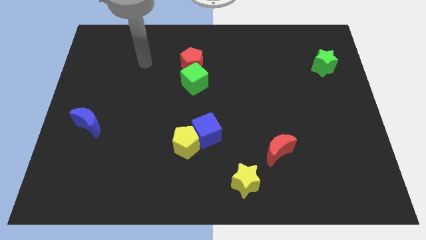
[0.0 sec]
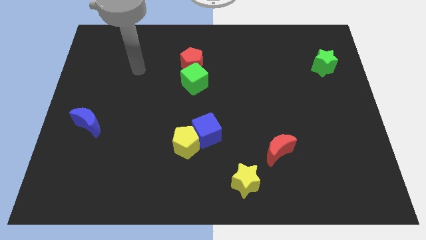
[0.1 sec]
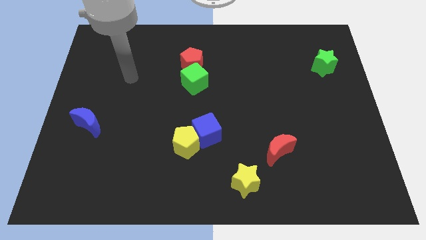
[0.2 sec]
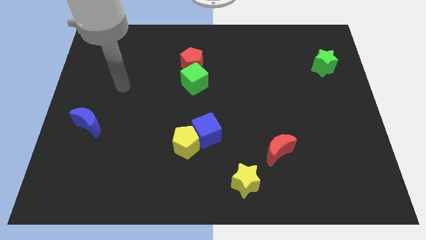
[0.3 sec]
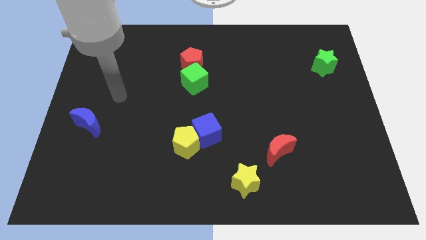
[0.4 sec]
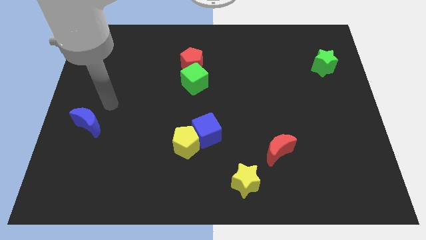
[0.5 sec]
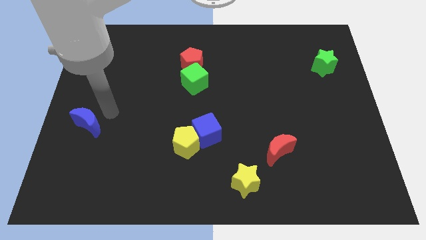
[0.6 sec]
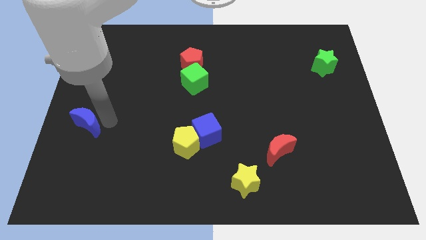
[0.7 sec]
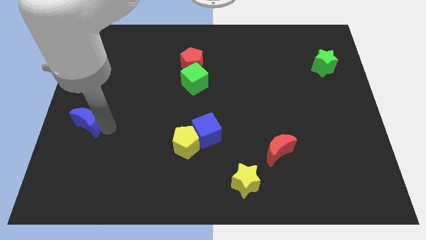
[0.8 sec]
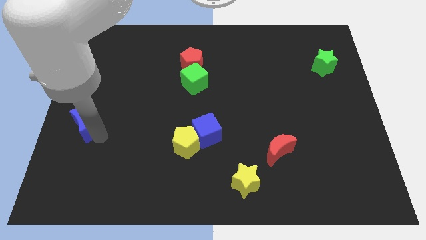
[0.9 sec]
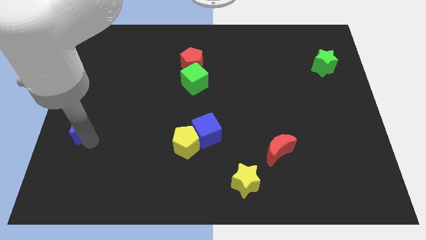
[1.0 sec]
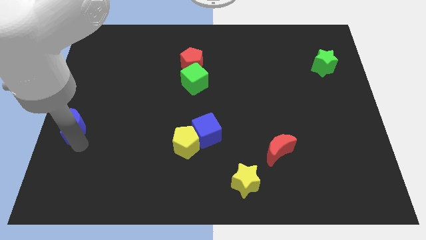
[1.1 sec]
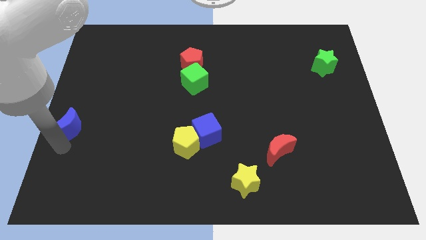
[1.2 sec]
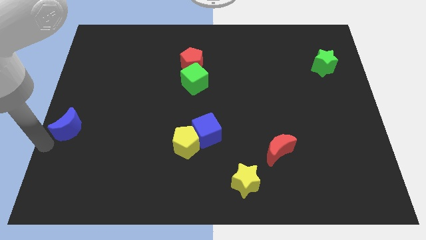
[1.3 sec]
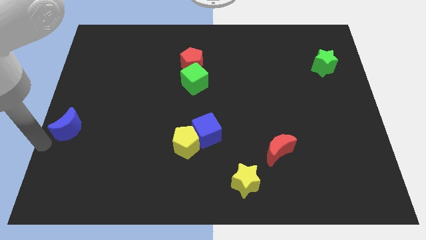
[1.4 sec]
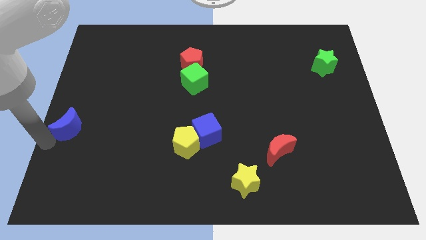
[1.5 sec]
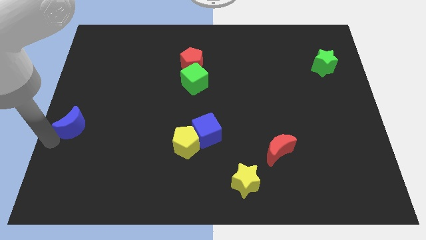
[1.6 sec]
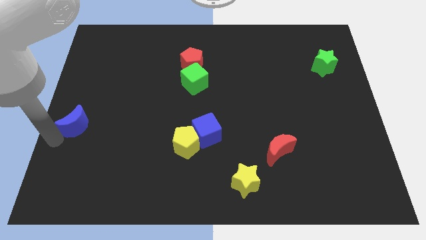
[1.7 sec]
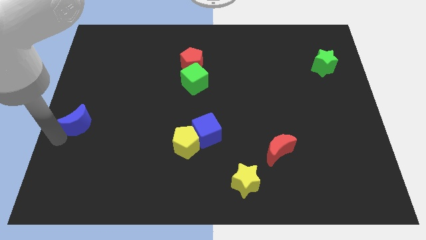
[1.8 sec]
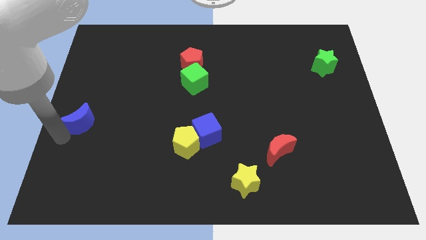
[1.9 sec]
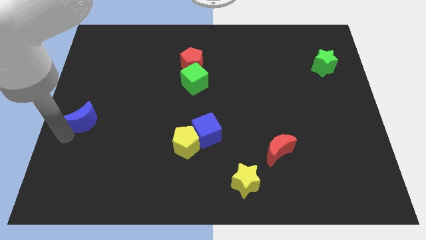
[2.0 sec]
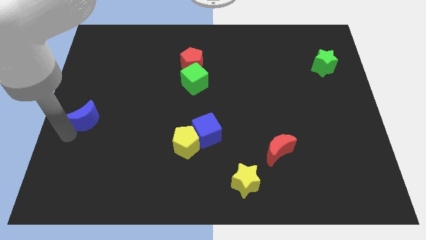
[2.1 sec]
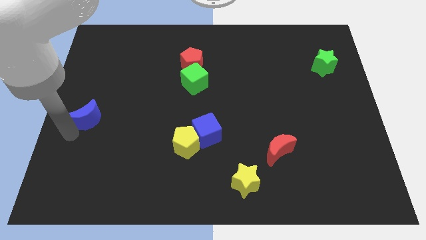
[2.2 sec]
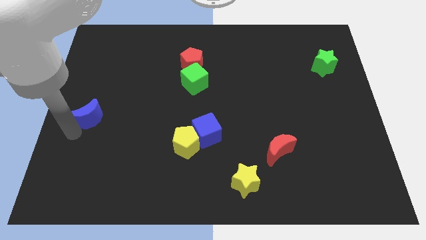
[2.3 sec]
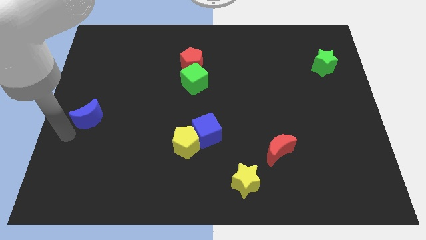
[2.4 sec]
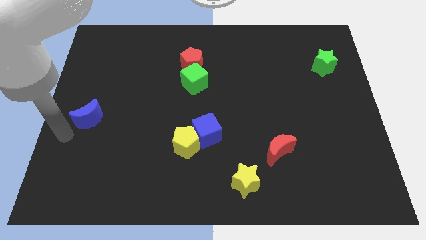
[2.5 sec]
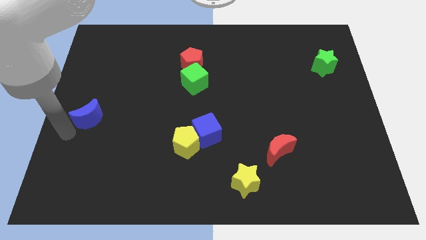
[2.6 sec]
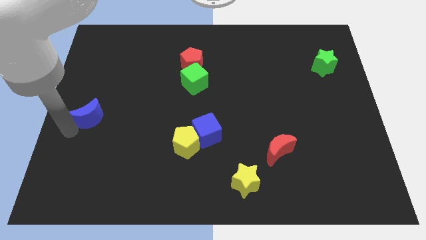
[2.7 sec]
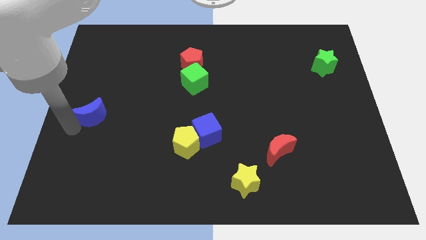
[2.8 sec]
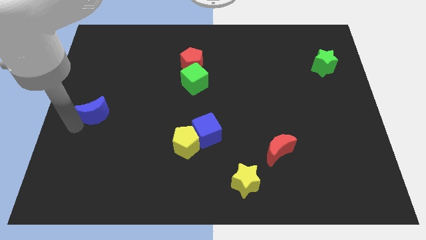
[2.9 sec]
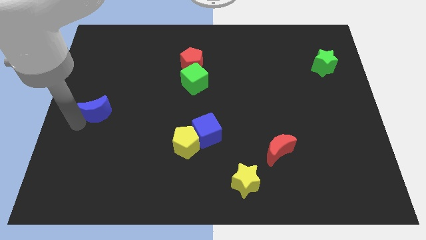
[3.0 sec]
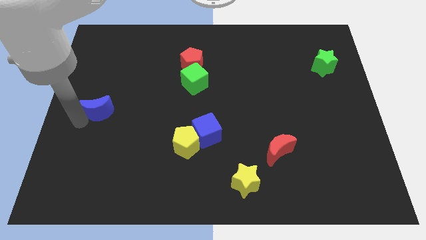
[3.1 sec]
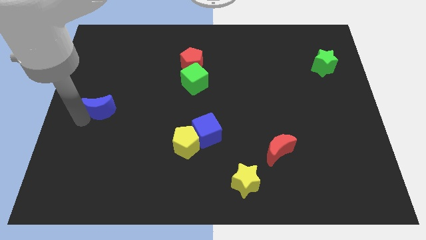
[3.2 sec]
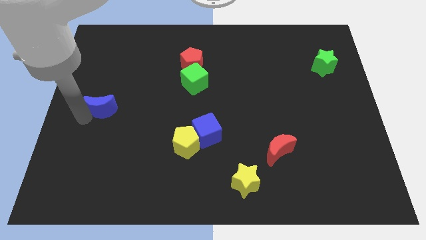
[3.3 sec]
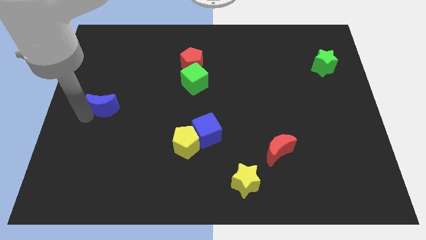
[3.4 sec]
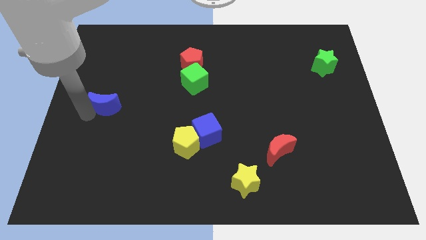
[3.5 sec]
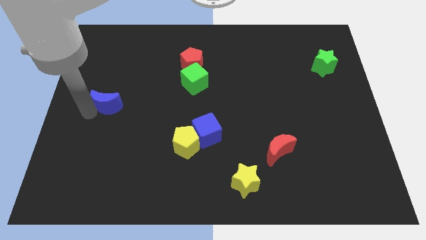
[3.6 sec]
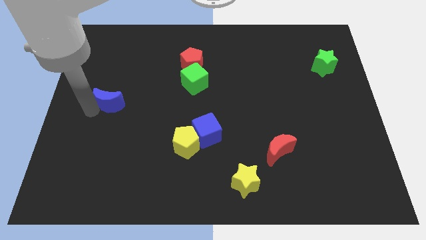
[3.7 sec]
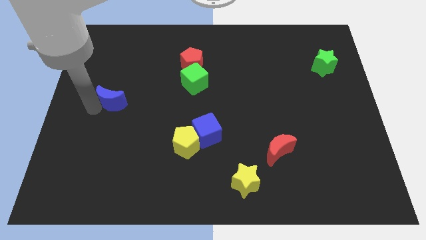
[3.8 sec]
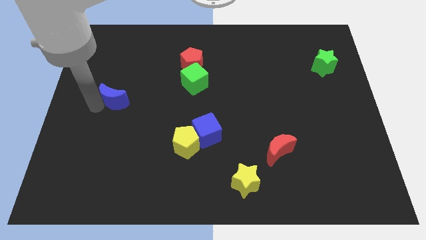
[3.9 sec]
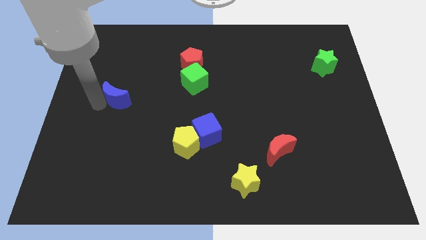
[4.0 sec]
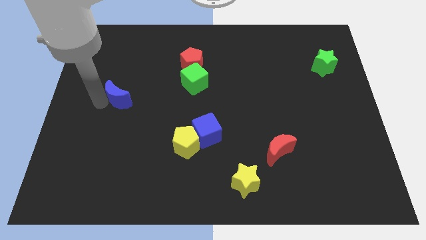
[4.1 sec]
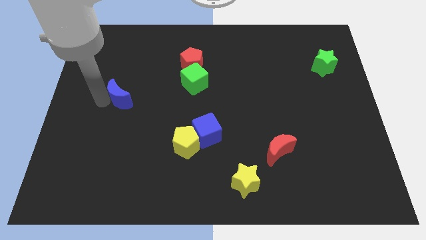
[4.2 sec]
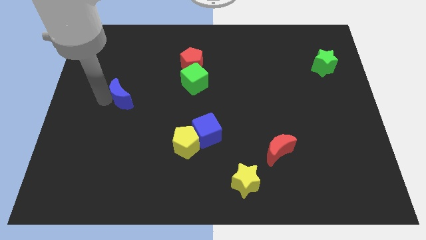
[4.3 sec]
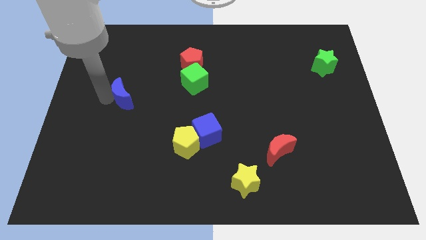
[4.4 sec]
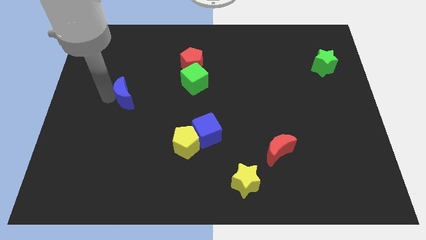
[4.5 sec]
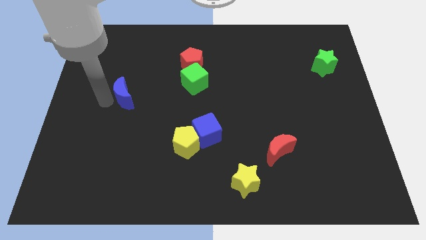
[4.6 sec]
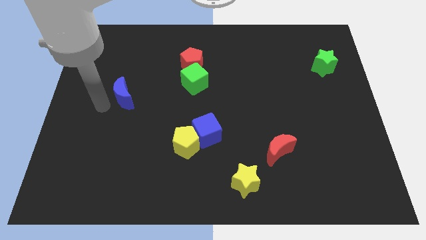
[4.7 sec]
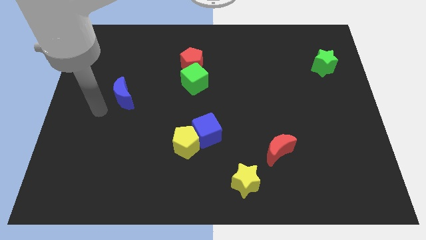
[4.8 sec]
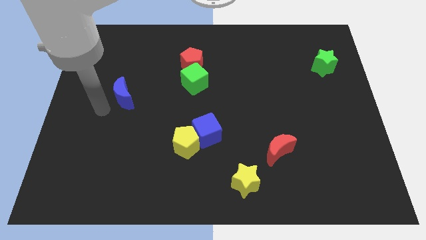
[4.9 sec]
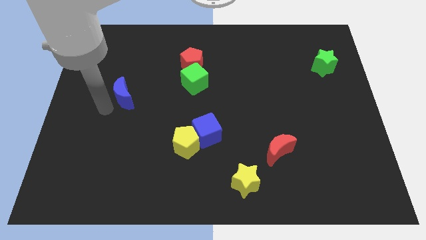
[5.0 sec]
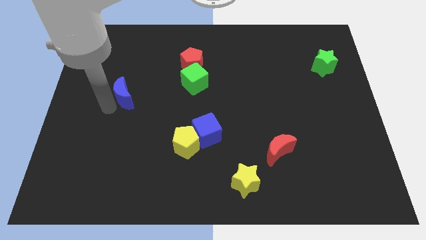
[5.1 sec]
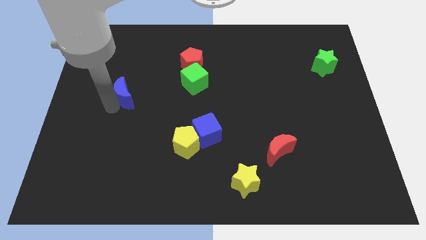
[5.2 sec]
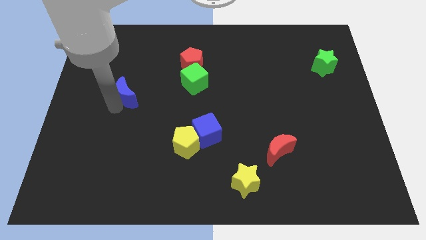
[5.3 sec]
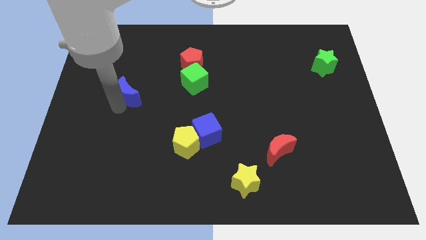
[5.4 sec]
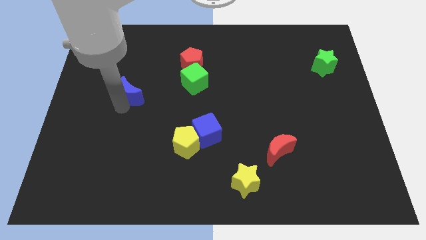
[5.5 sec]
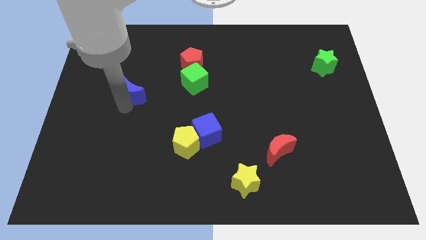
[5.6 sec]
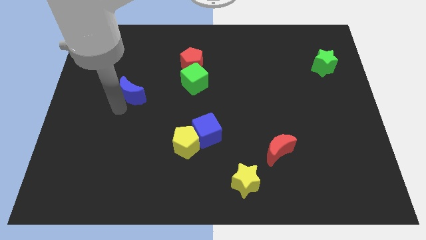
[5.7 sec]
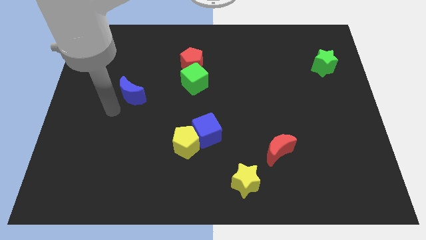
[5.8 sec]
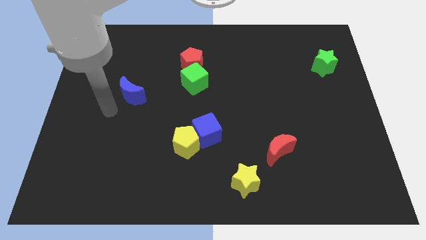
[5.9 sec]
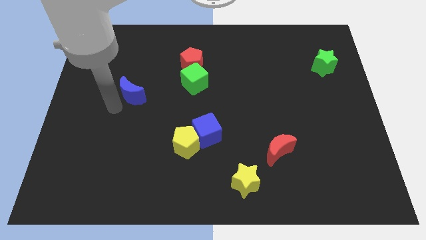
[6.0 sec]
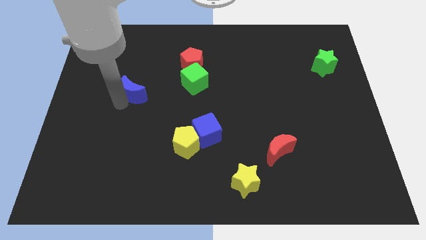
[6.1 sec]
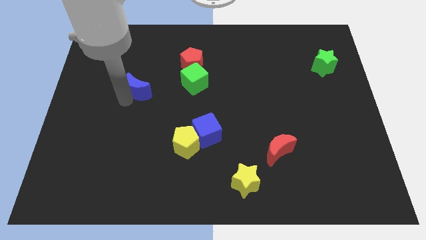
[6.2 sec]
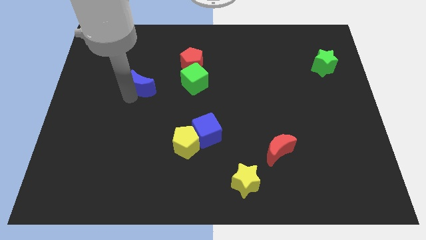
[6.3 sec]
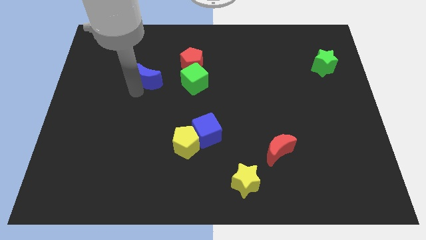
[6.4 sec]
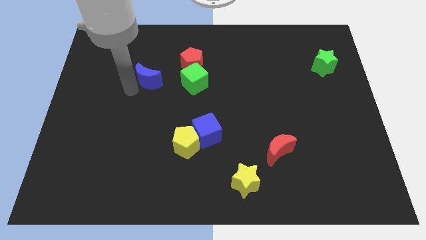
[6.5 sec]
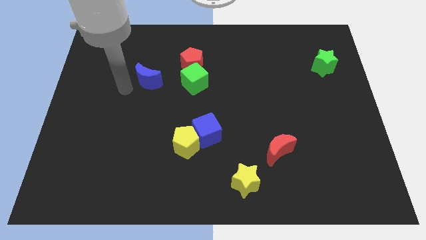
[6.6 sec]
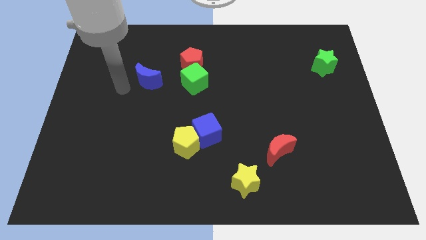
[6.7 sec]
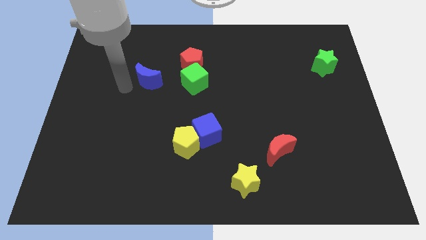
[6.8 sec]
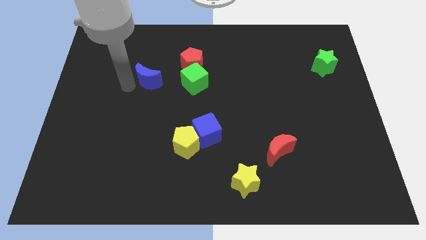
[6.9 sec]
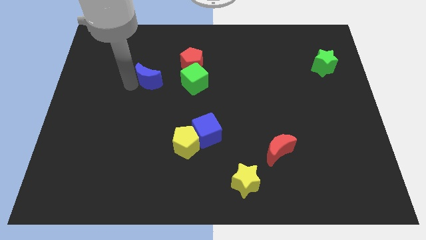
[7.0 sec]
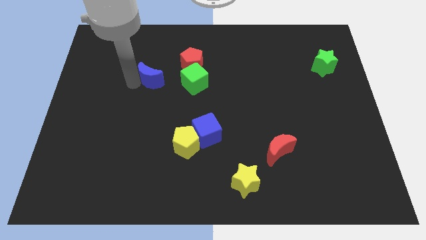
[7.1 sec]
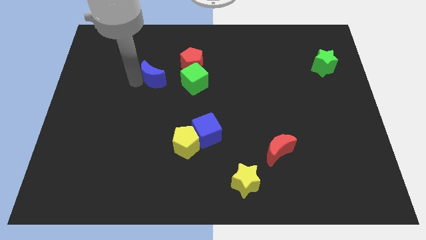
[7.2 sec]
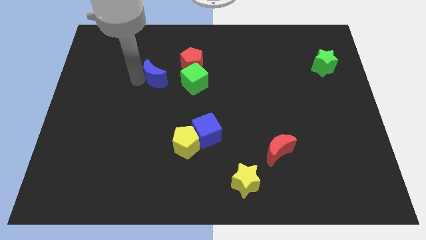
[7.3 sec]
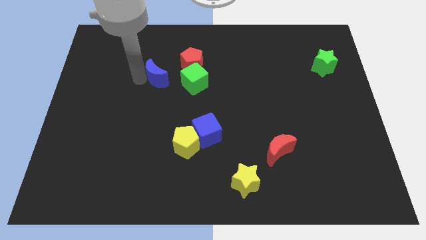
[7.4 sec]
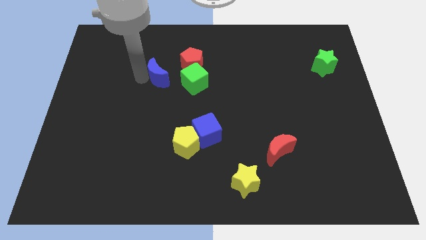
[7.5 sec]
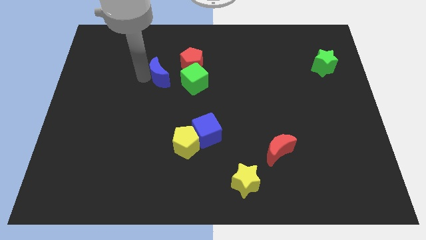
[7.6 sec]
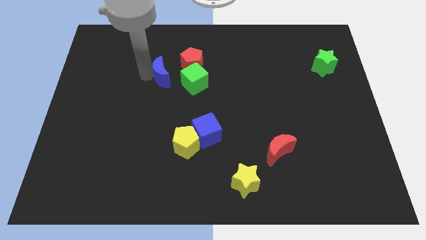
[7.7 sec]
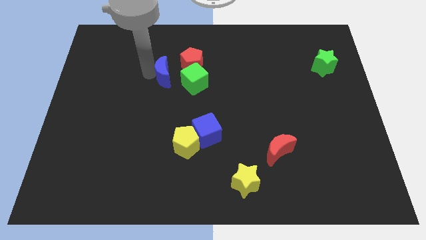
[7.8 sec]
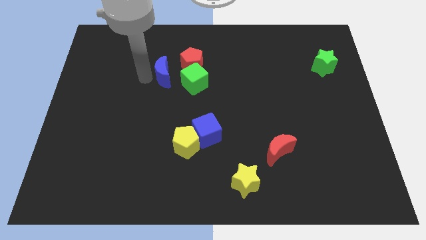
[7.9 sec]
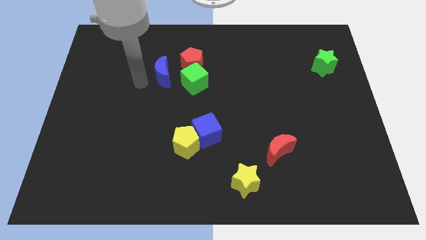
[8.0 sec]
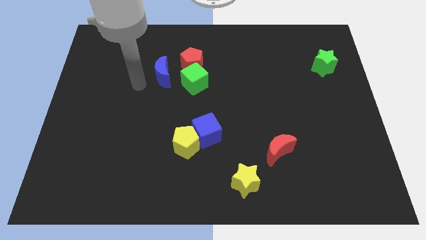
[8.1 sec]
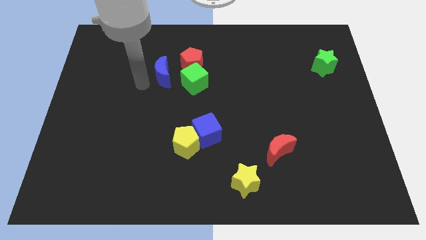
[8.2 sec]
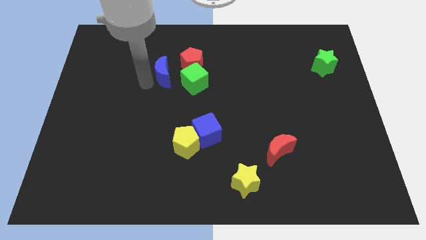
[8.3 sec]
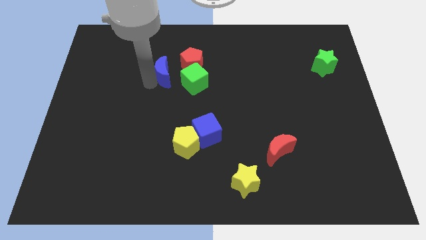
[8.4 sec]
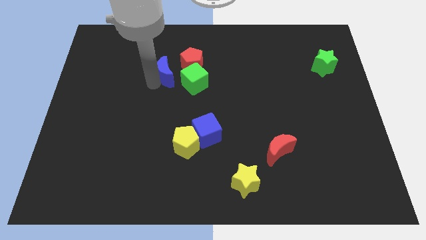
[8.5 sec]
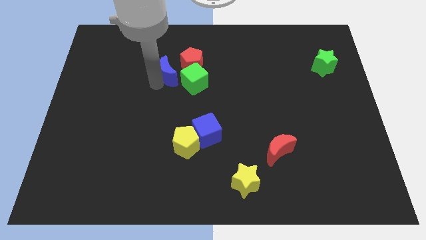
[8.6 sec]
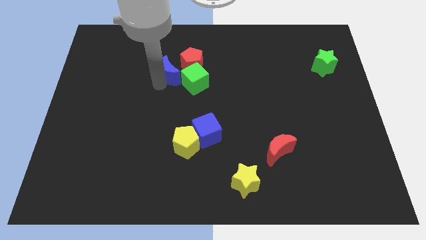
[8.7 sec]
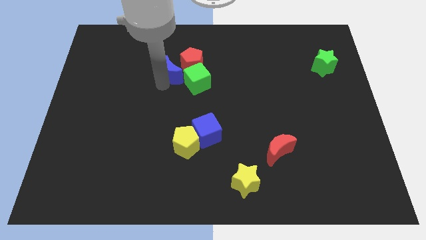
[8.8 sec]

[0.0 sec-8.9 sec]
move the blue moon to the red pentagon
